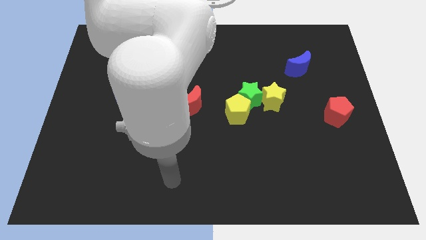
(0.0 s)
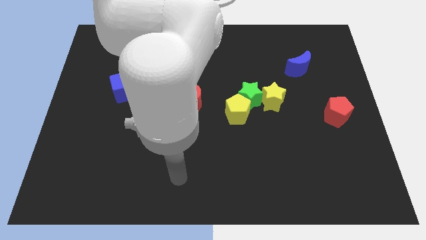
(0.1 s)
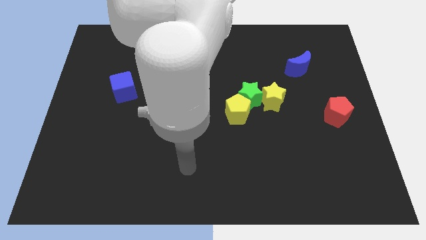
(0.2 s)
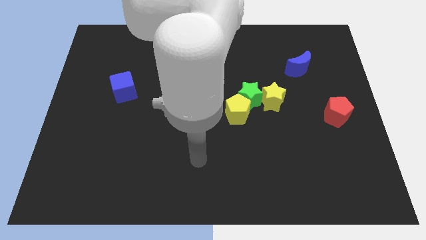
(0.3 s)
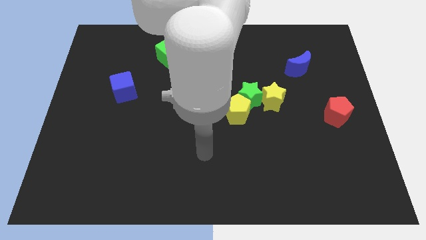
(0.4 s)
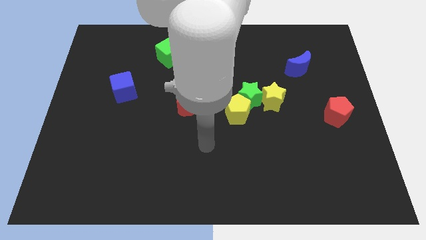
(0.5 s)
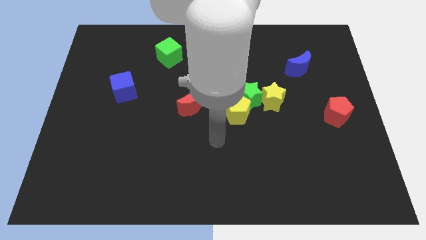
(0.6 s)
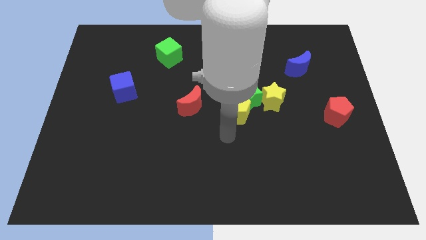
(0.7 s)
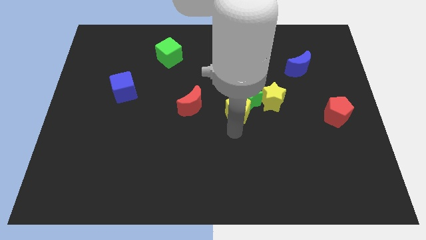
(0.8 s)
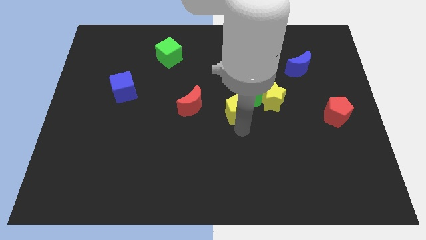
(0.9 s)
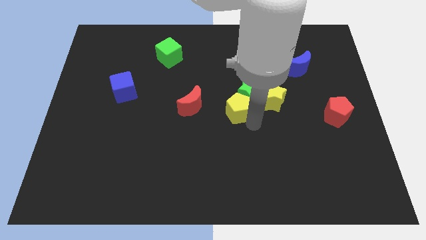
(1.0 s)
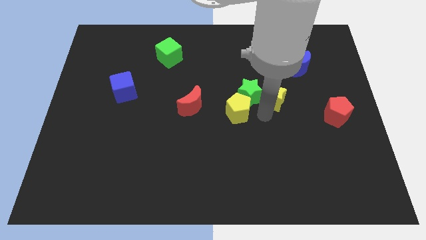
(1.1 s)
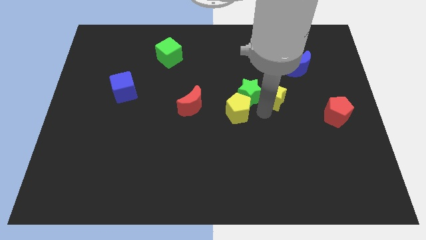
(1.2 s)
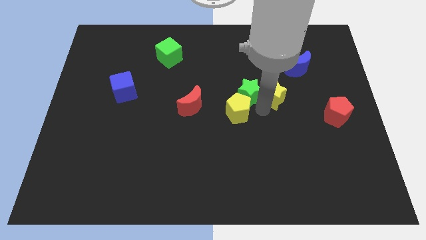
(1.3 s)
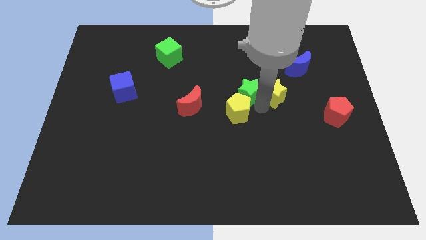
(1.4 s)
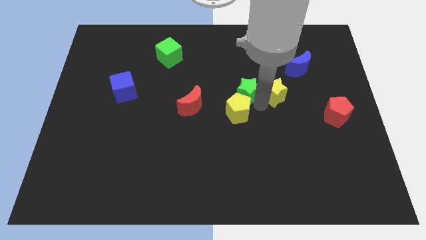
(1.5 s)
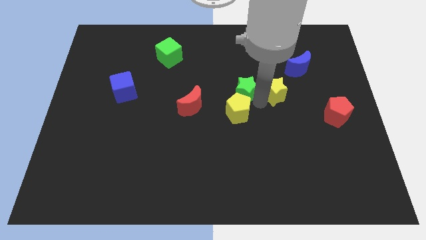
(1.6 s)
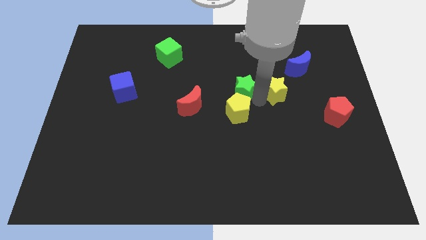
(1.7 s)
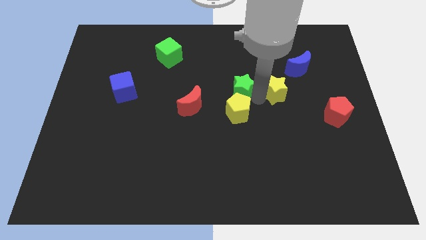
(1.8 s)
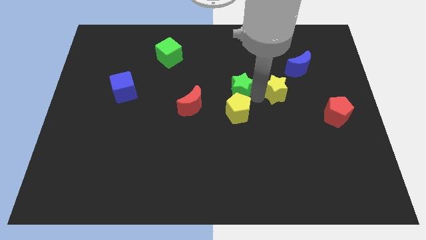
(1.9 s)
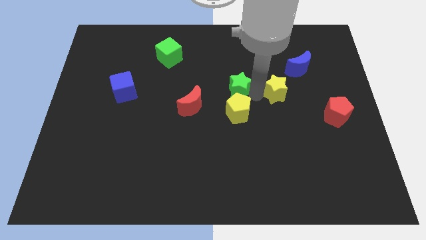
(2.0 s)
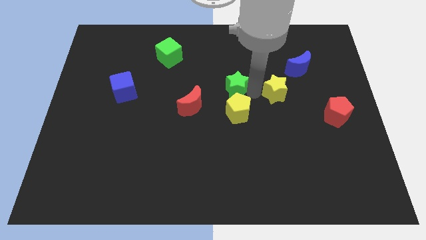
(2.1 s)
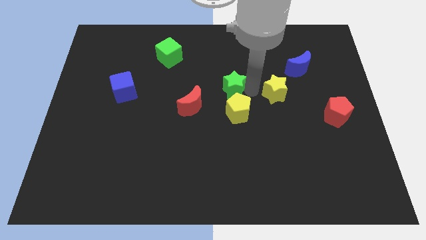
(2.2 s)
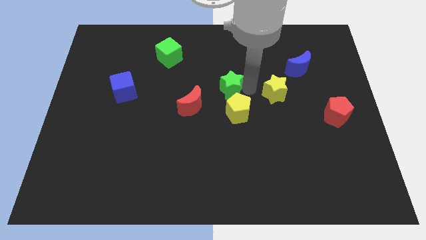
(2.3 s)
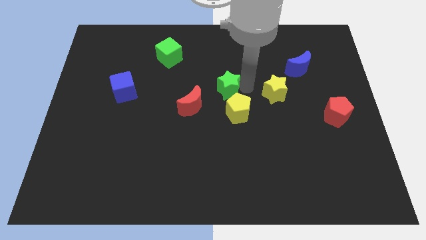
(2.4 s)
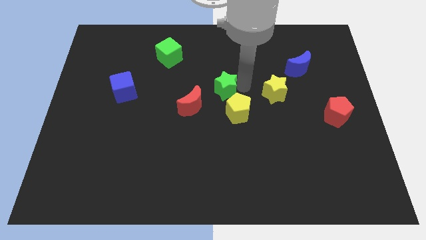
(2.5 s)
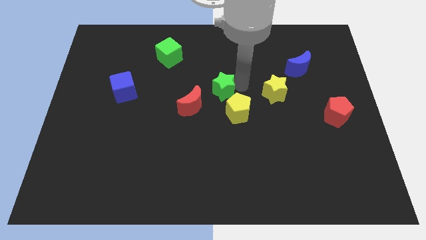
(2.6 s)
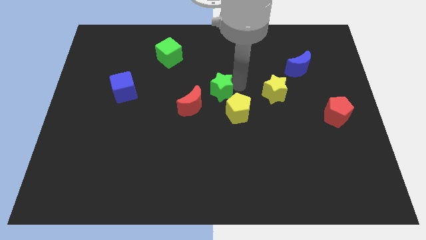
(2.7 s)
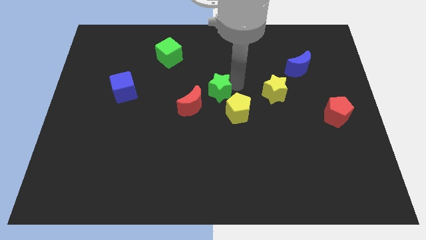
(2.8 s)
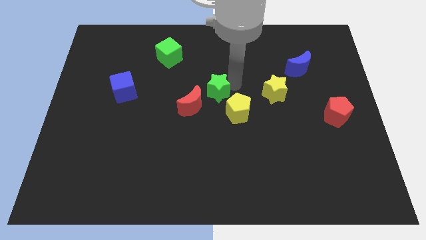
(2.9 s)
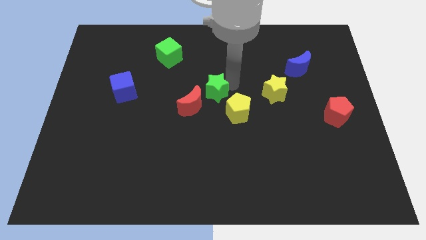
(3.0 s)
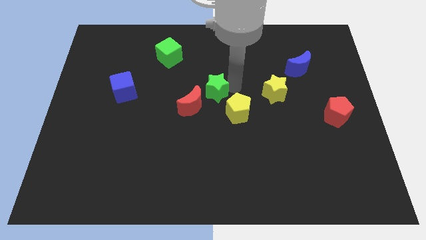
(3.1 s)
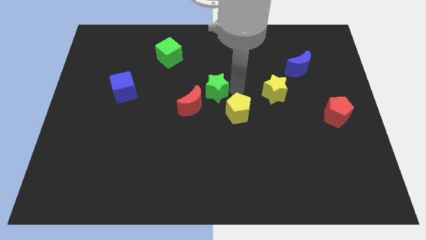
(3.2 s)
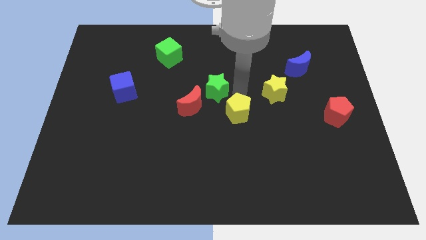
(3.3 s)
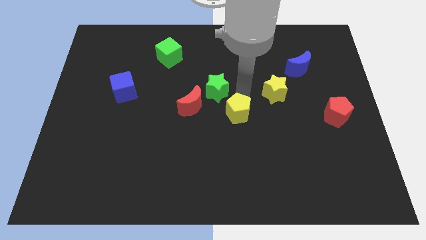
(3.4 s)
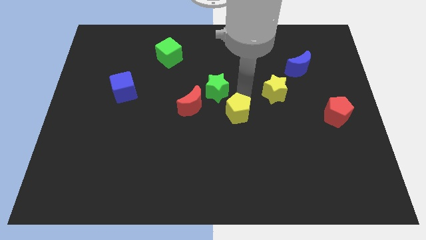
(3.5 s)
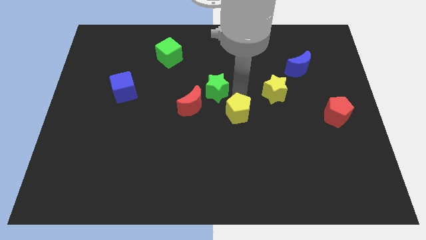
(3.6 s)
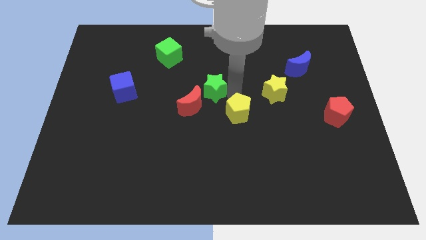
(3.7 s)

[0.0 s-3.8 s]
separate the green star from the yellow pentagon and yellow star

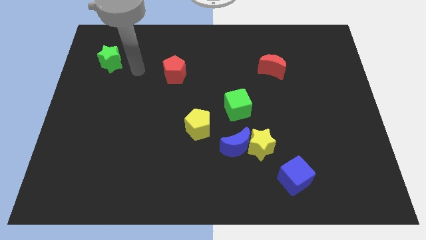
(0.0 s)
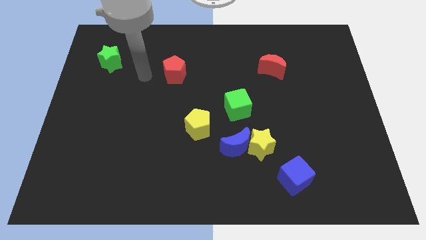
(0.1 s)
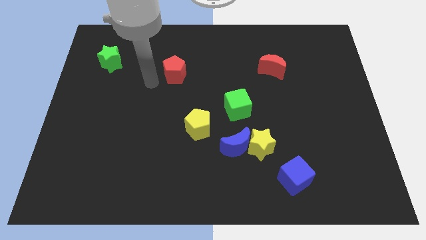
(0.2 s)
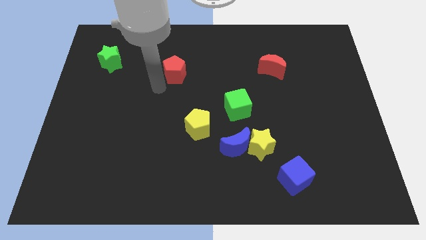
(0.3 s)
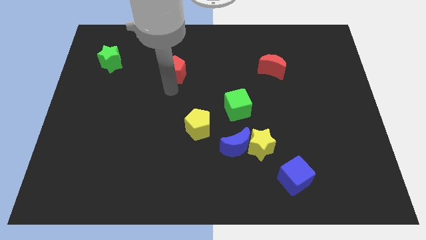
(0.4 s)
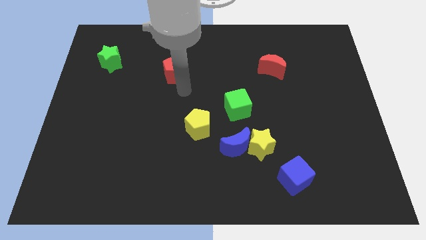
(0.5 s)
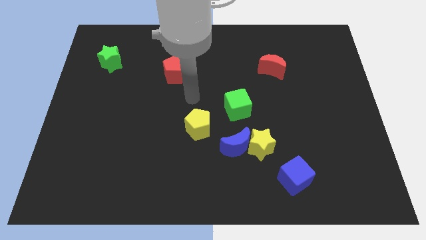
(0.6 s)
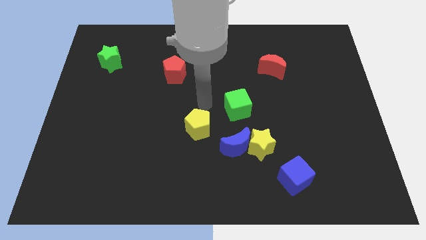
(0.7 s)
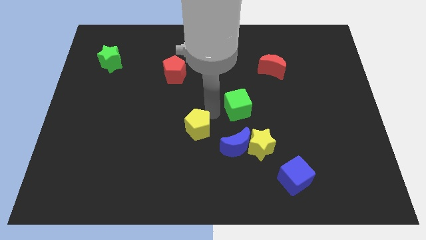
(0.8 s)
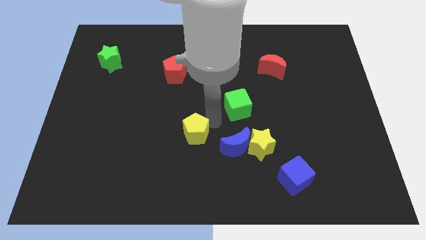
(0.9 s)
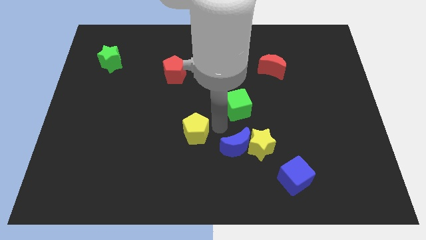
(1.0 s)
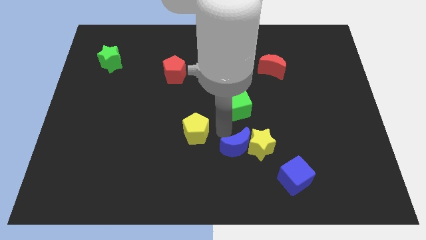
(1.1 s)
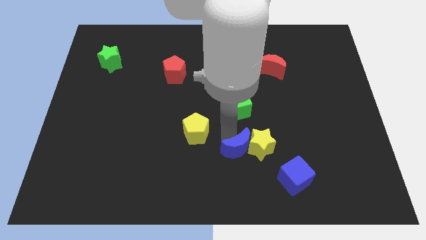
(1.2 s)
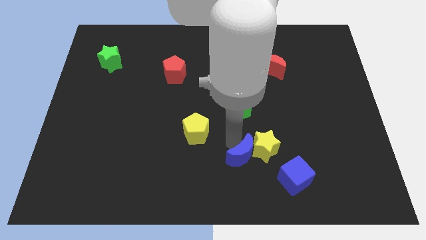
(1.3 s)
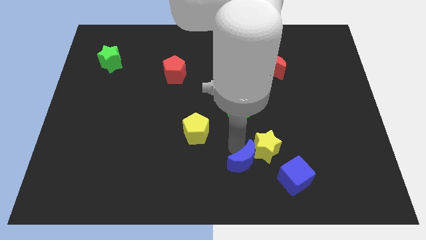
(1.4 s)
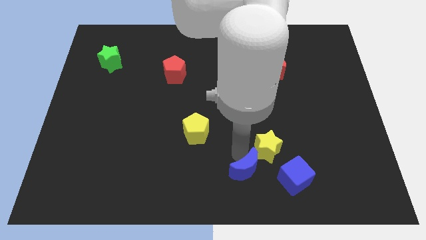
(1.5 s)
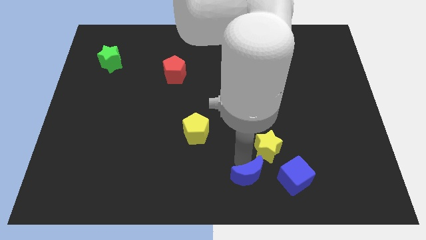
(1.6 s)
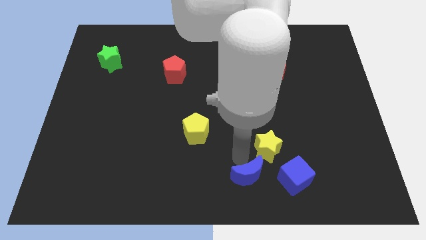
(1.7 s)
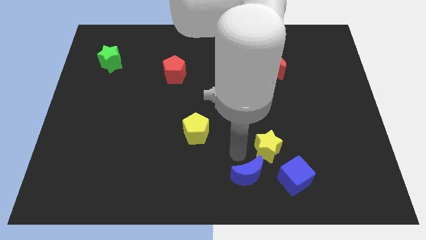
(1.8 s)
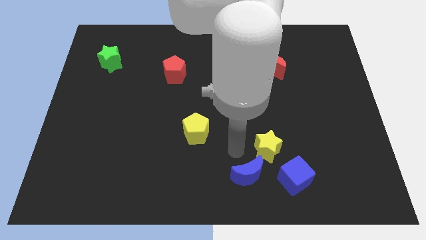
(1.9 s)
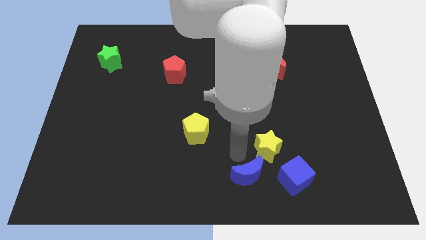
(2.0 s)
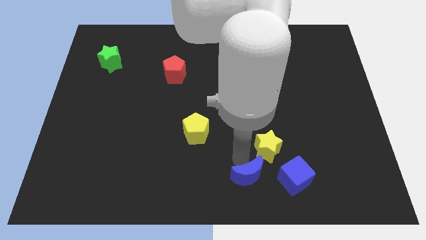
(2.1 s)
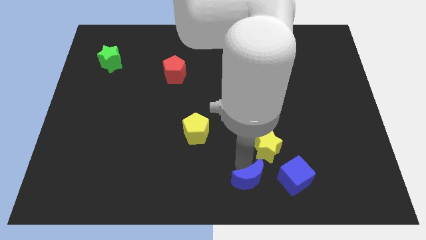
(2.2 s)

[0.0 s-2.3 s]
pull the blue moon apart from the yellow star and yellow pentagon

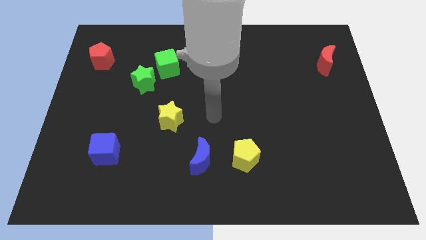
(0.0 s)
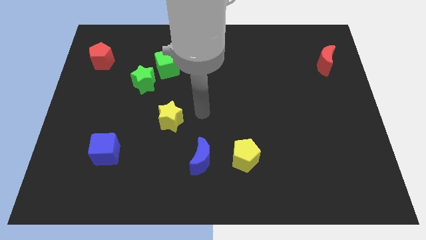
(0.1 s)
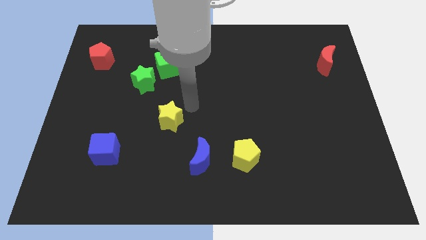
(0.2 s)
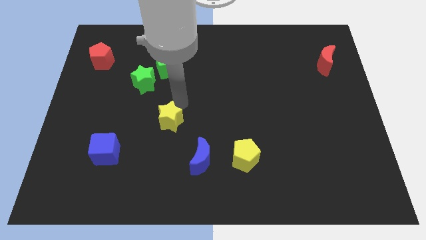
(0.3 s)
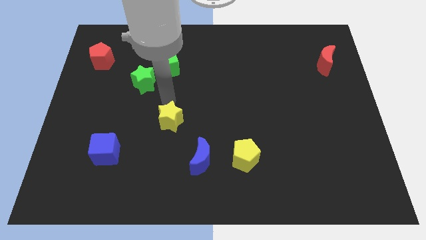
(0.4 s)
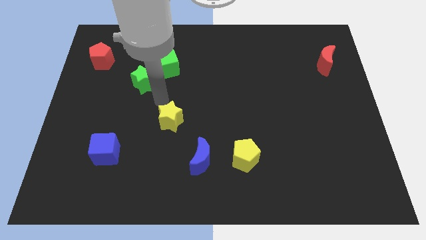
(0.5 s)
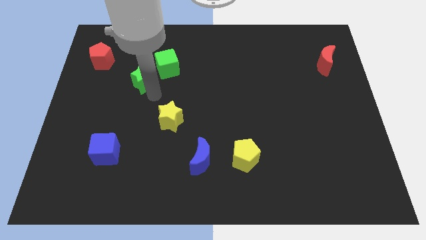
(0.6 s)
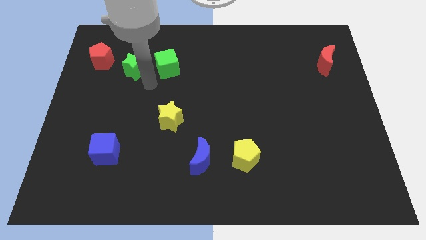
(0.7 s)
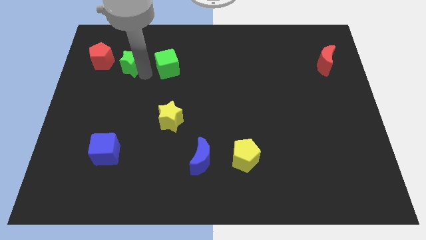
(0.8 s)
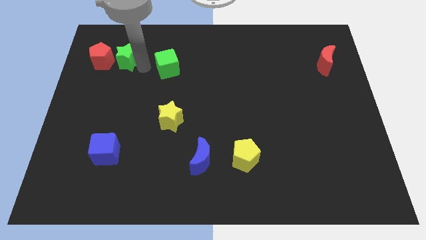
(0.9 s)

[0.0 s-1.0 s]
separate the green cube from the green star

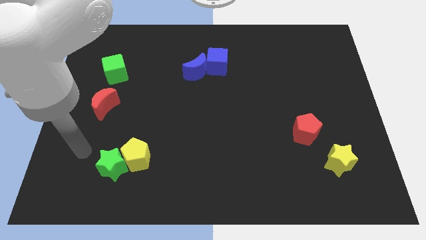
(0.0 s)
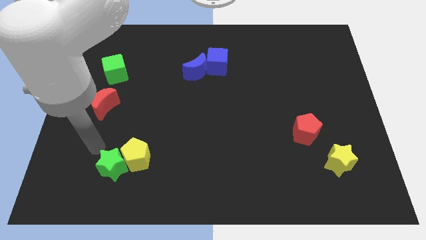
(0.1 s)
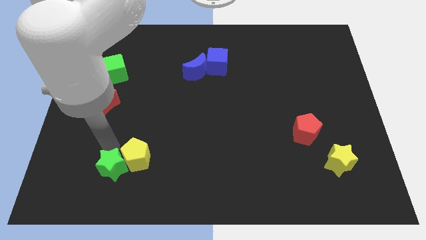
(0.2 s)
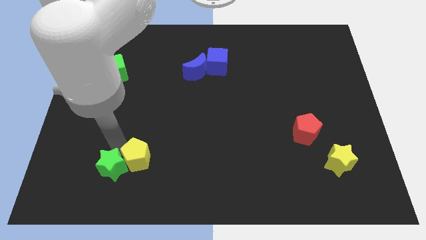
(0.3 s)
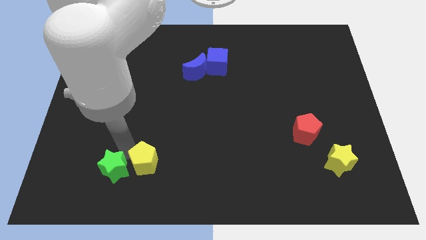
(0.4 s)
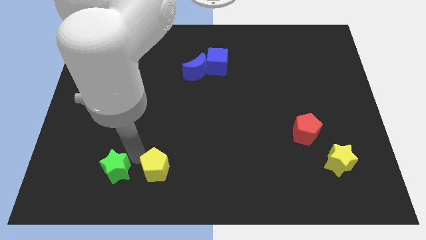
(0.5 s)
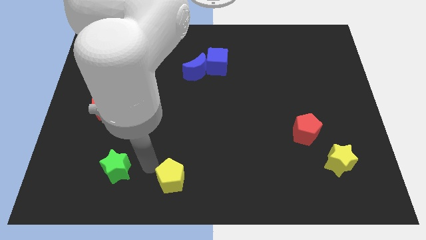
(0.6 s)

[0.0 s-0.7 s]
separate the green star from the yellow pentagon

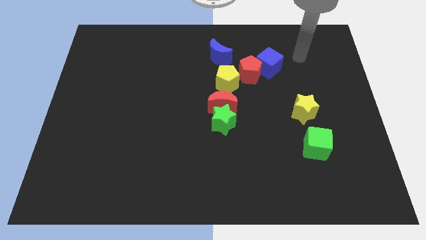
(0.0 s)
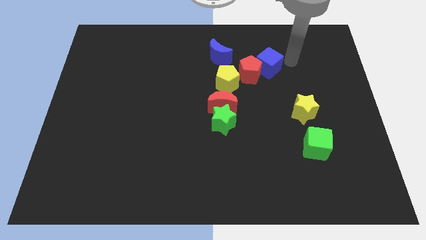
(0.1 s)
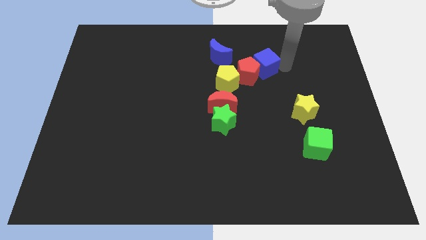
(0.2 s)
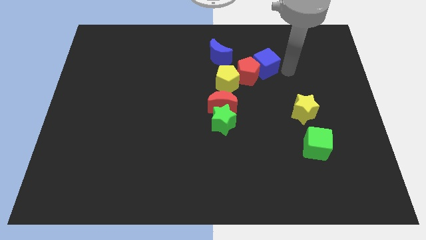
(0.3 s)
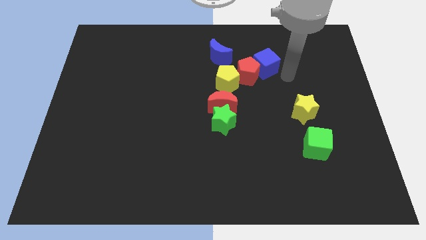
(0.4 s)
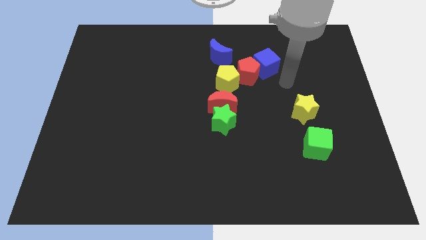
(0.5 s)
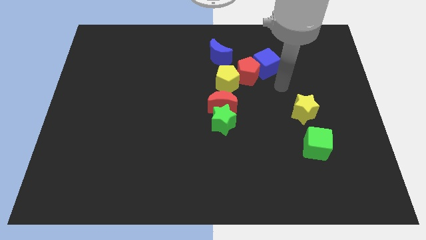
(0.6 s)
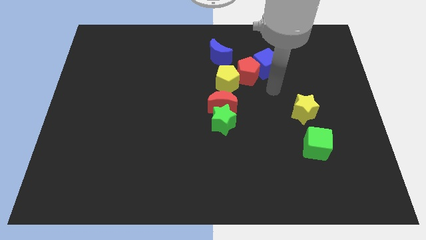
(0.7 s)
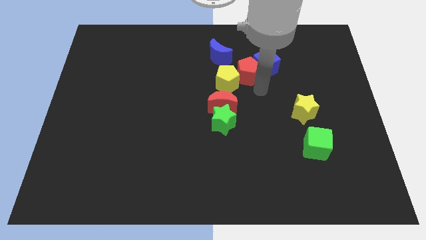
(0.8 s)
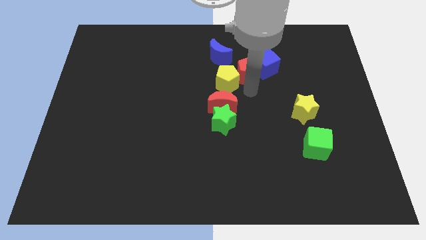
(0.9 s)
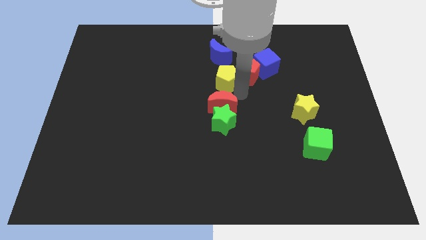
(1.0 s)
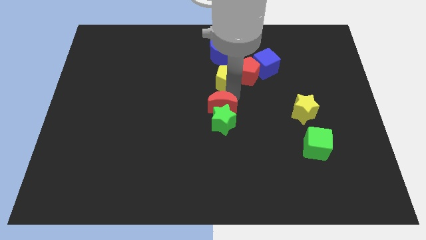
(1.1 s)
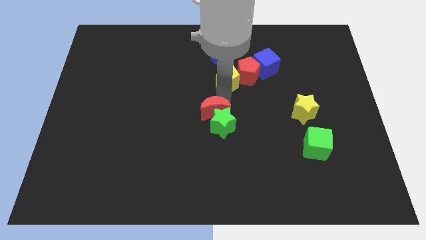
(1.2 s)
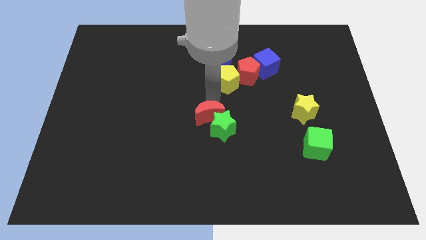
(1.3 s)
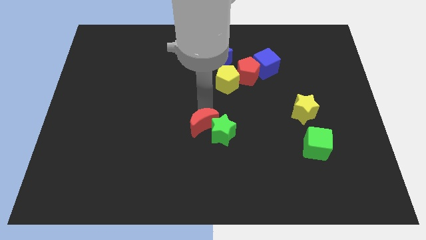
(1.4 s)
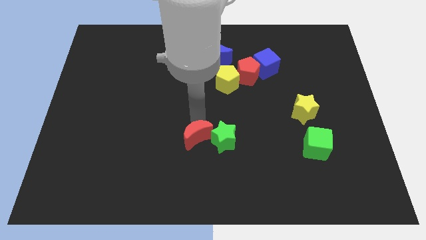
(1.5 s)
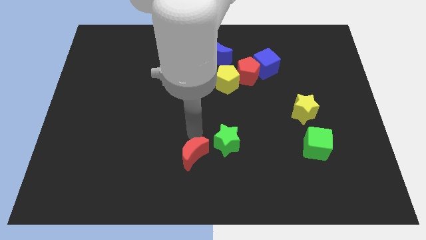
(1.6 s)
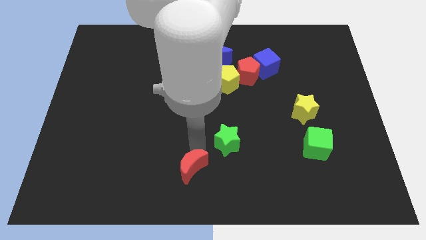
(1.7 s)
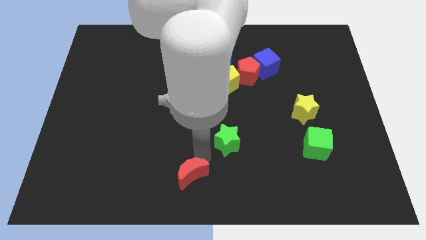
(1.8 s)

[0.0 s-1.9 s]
move the green star away from the red moon
